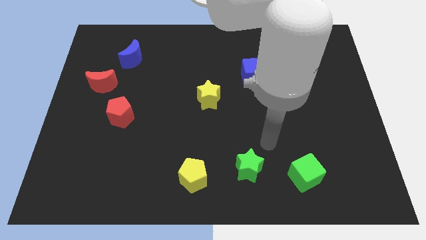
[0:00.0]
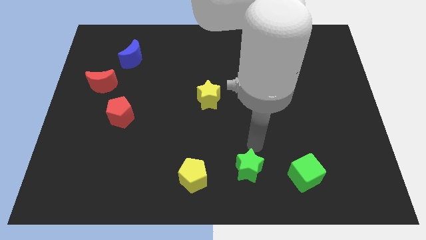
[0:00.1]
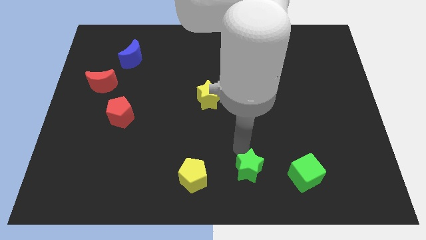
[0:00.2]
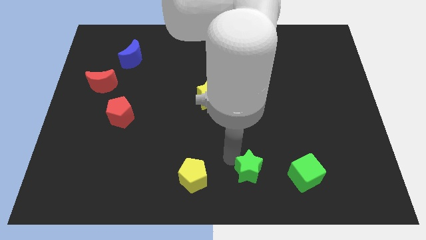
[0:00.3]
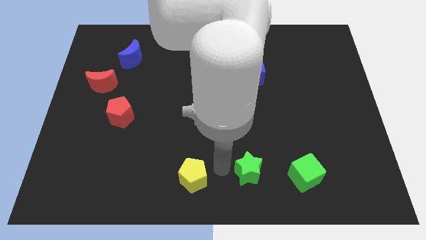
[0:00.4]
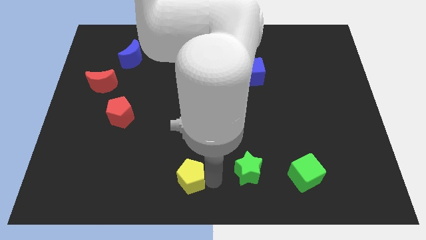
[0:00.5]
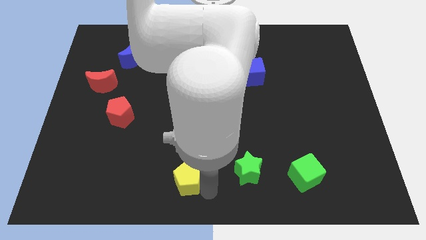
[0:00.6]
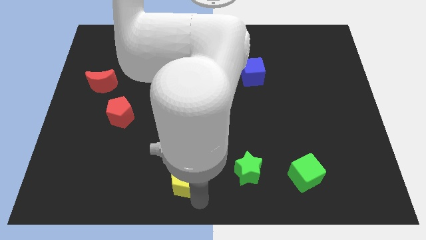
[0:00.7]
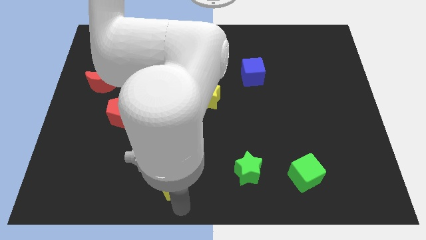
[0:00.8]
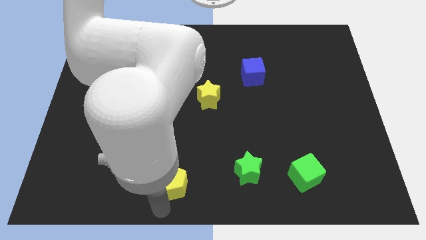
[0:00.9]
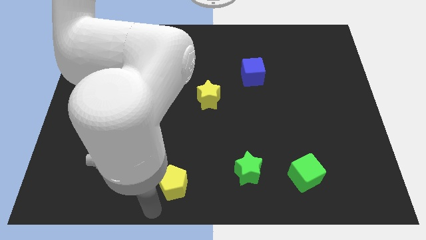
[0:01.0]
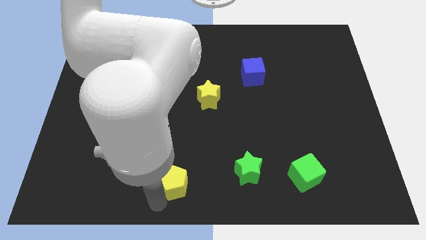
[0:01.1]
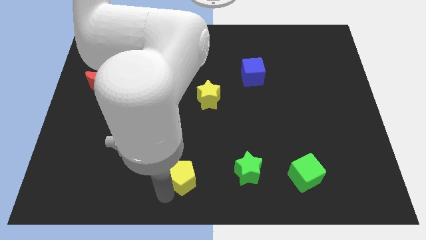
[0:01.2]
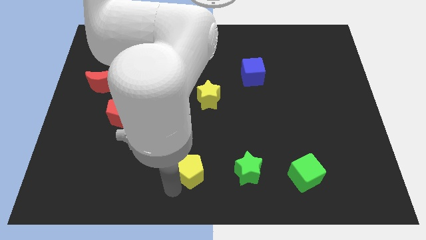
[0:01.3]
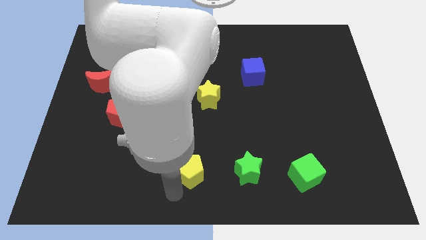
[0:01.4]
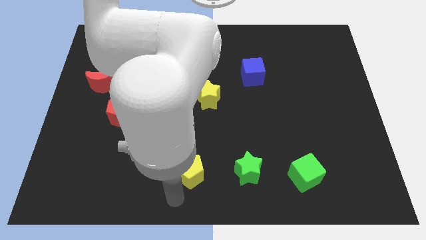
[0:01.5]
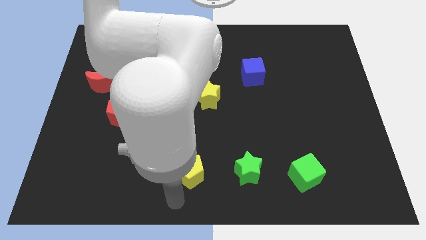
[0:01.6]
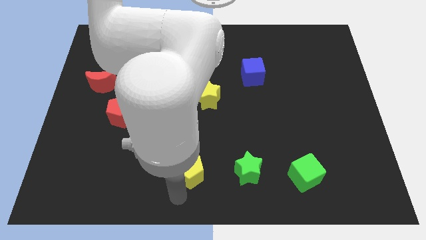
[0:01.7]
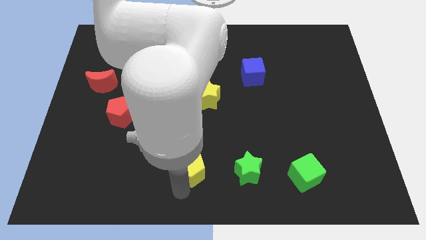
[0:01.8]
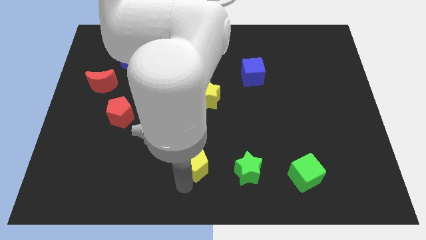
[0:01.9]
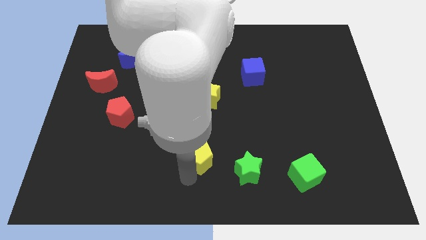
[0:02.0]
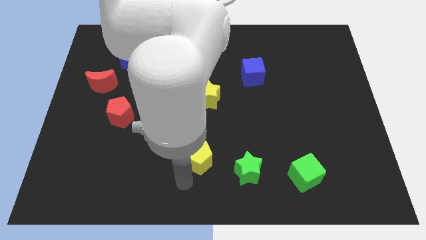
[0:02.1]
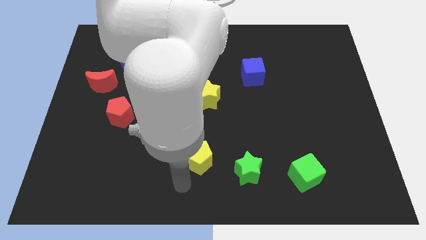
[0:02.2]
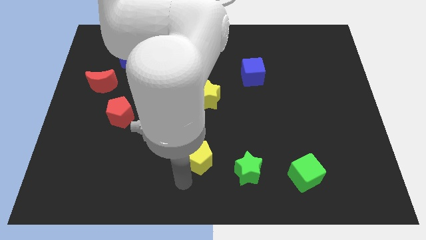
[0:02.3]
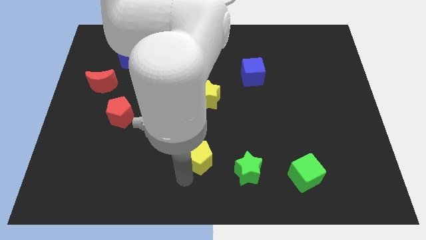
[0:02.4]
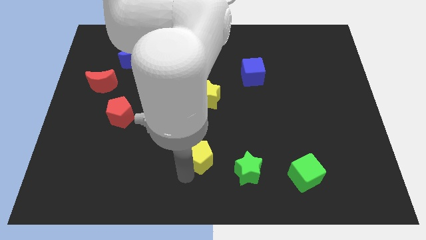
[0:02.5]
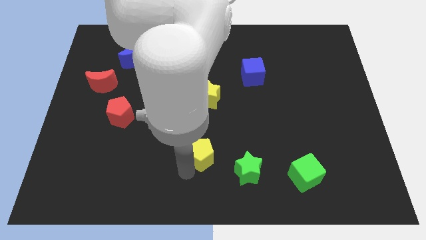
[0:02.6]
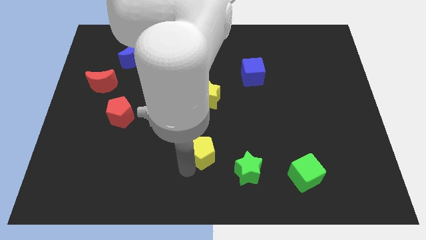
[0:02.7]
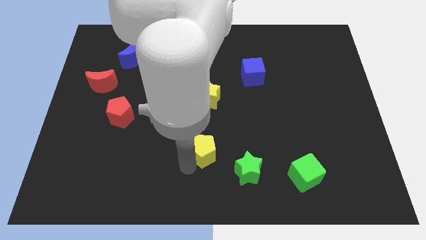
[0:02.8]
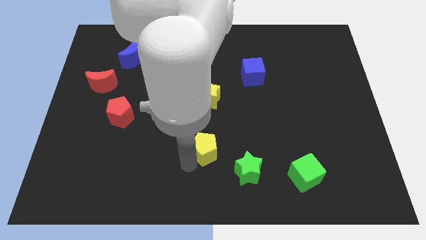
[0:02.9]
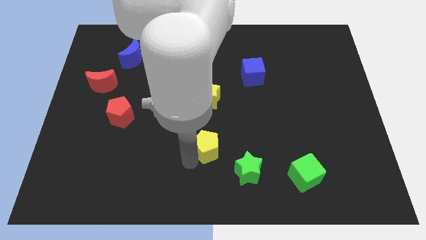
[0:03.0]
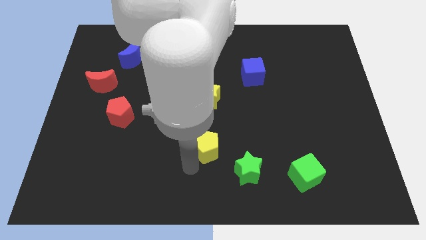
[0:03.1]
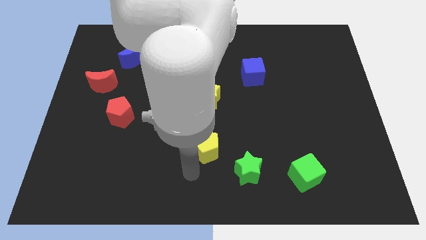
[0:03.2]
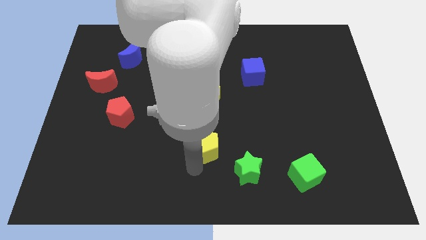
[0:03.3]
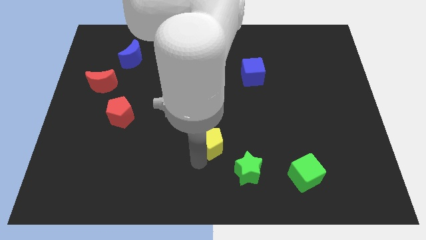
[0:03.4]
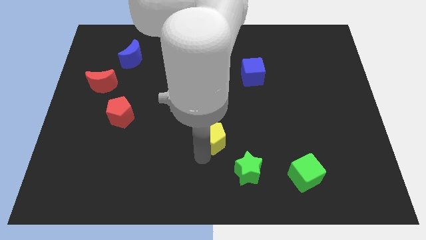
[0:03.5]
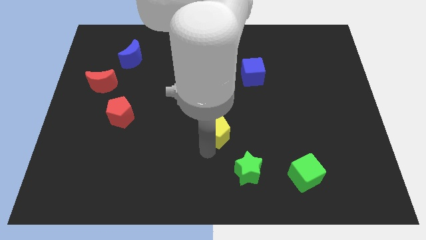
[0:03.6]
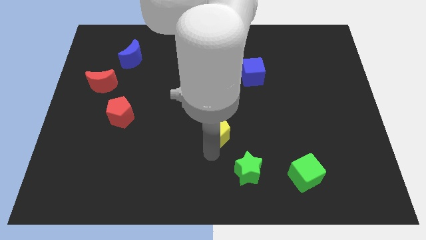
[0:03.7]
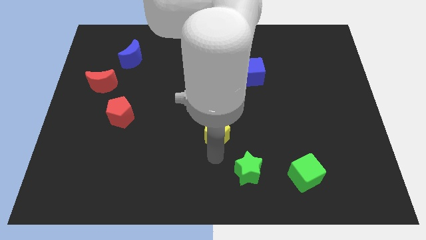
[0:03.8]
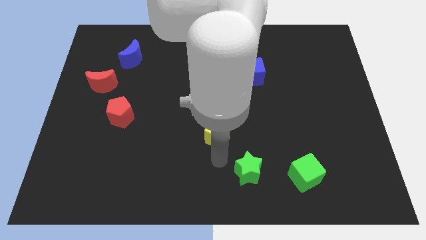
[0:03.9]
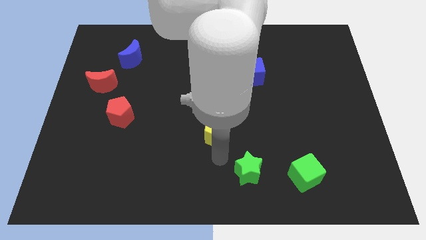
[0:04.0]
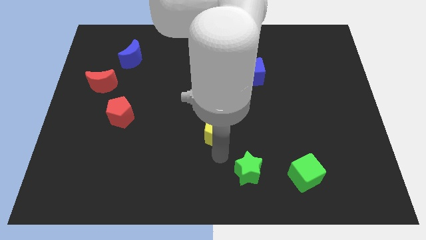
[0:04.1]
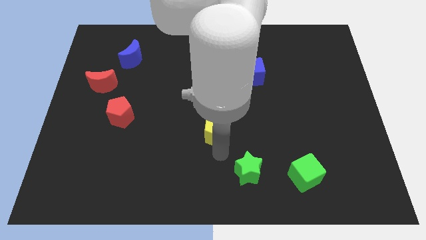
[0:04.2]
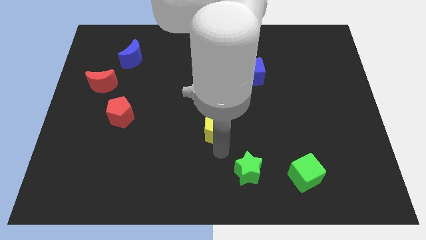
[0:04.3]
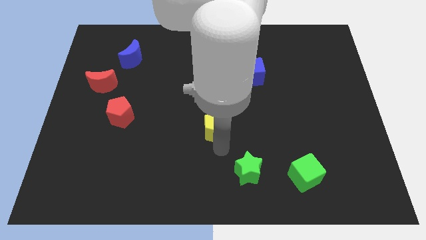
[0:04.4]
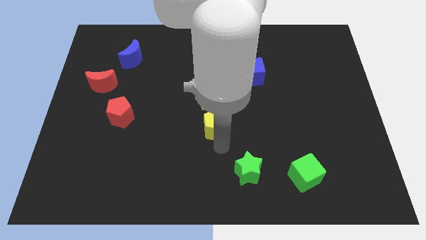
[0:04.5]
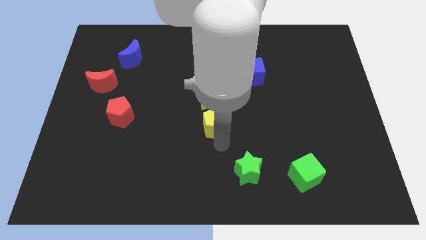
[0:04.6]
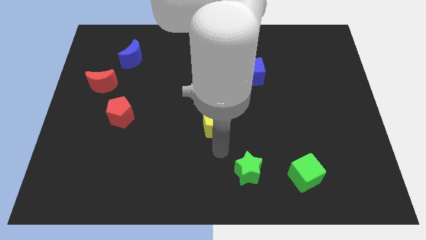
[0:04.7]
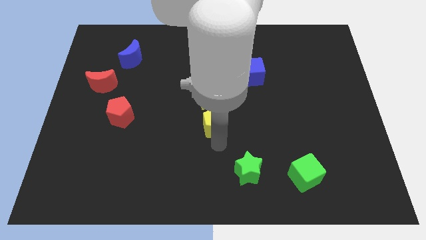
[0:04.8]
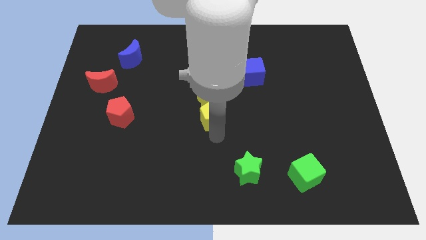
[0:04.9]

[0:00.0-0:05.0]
put the yellow pentagon to the yellow star

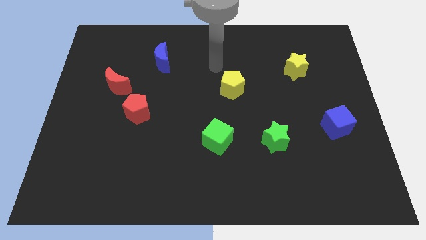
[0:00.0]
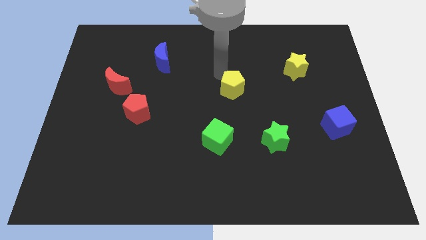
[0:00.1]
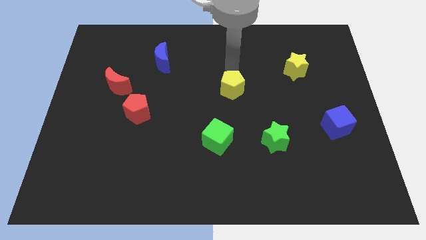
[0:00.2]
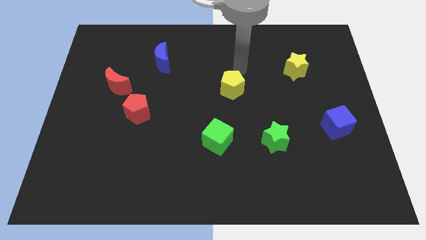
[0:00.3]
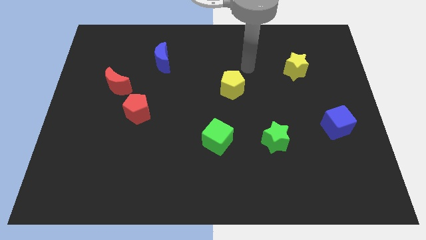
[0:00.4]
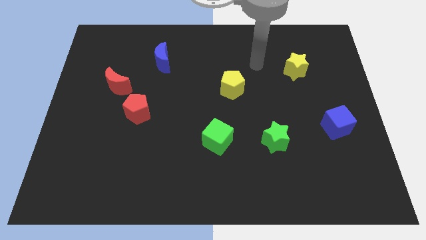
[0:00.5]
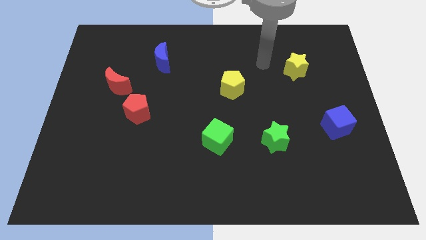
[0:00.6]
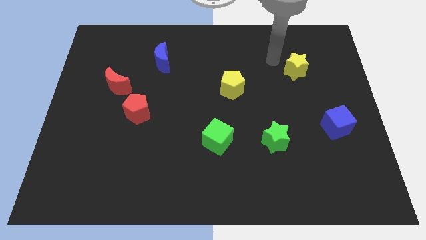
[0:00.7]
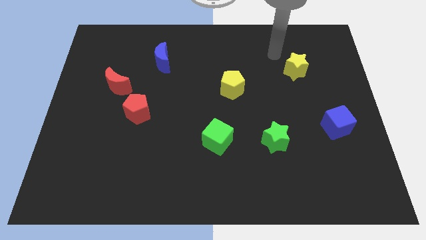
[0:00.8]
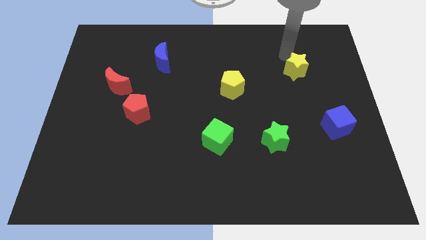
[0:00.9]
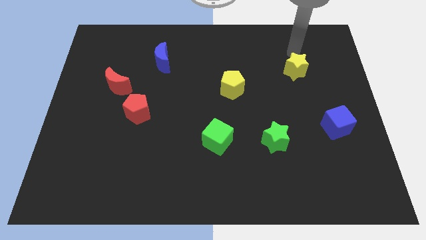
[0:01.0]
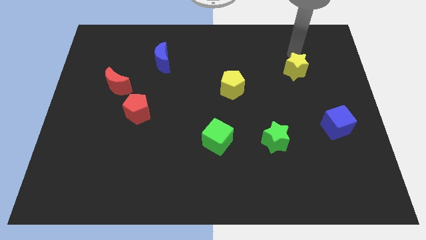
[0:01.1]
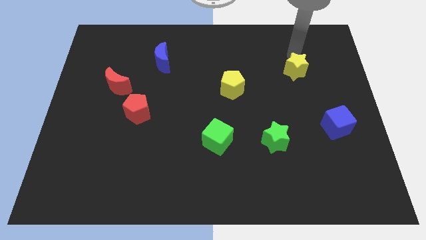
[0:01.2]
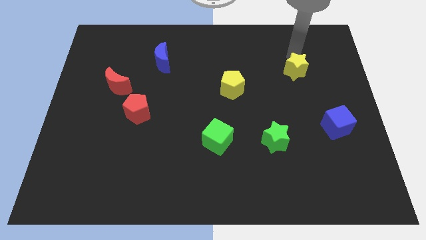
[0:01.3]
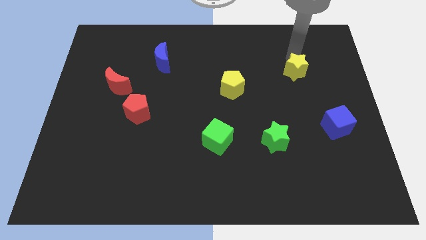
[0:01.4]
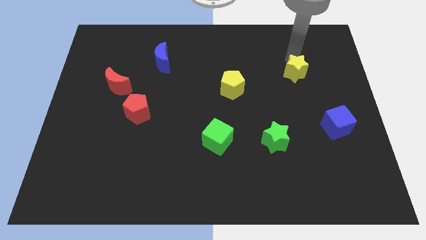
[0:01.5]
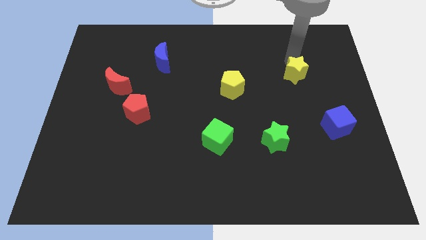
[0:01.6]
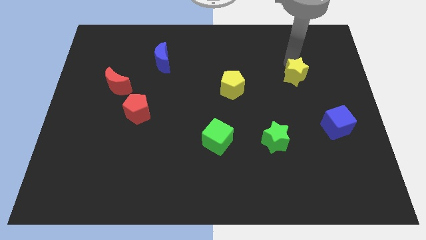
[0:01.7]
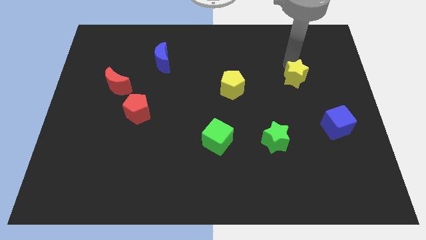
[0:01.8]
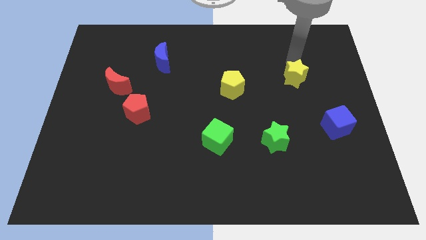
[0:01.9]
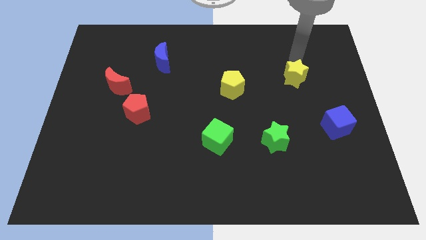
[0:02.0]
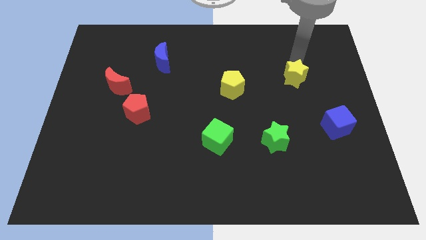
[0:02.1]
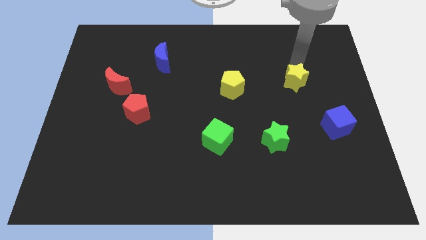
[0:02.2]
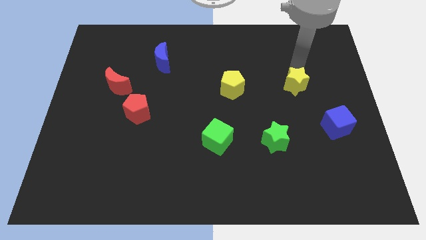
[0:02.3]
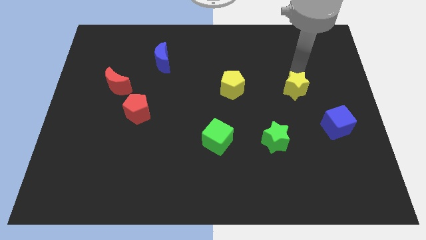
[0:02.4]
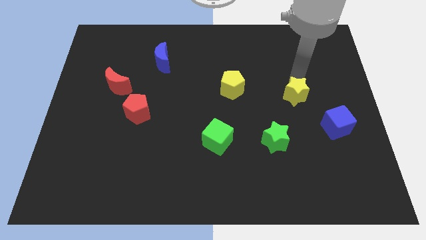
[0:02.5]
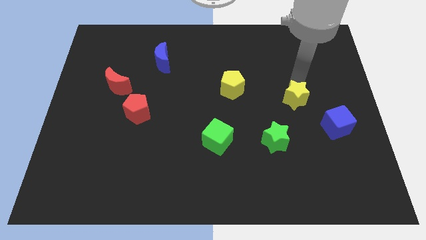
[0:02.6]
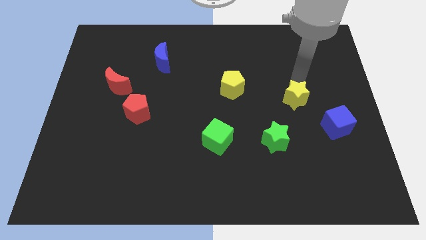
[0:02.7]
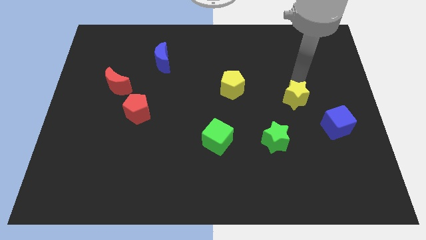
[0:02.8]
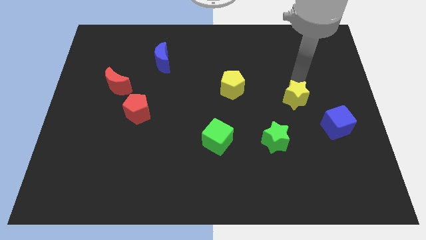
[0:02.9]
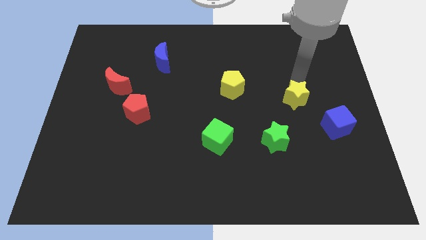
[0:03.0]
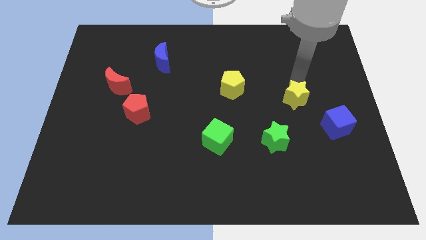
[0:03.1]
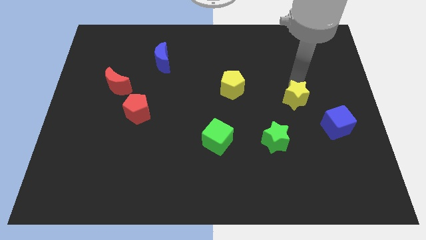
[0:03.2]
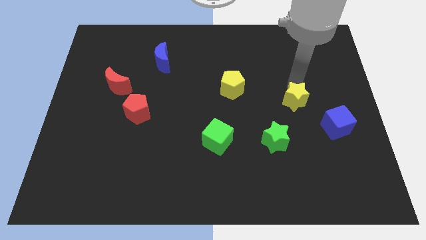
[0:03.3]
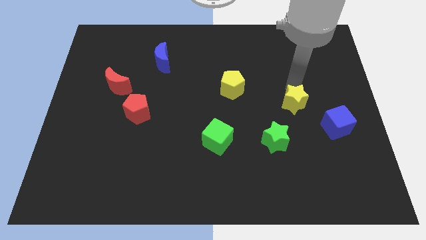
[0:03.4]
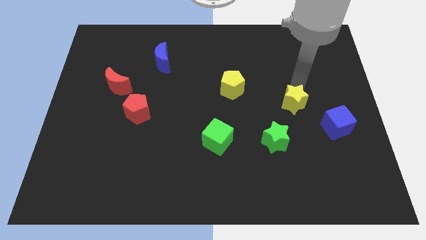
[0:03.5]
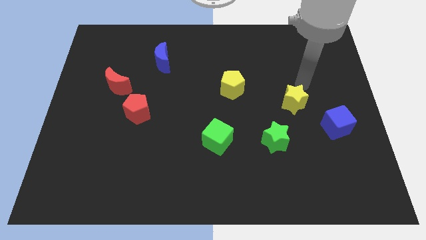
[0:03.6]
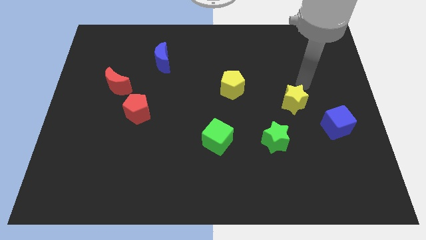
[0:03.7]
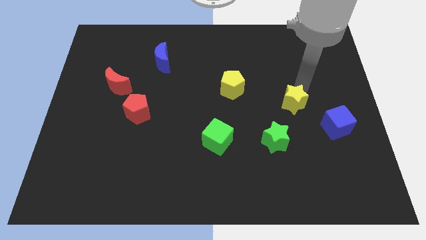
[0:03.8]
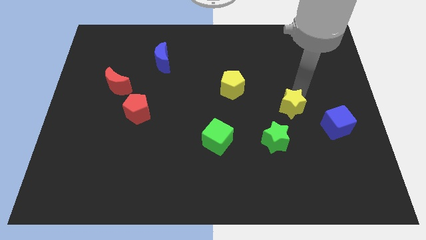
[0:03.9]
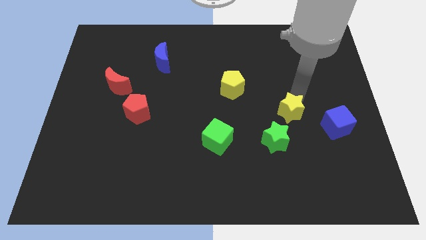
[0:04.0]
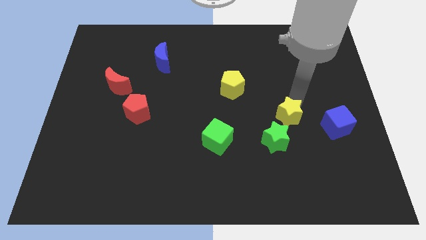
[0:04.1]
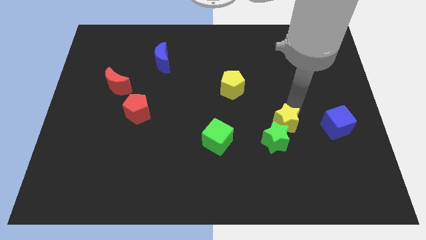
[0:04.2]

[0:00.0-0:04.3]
put the yellow star to the green star
